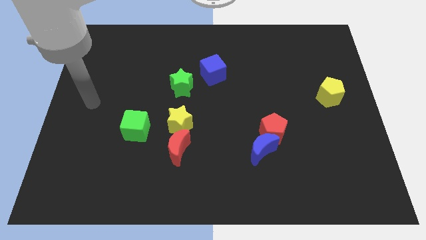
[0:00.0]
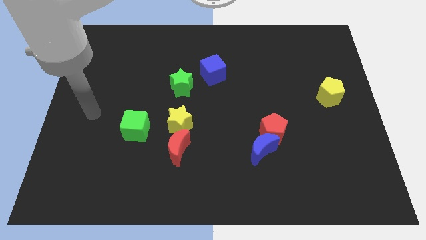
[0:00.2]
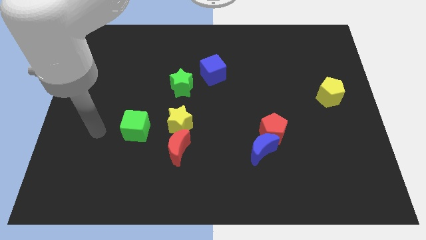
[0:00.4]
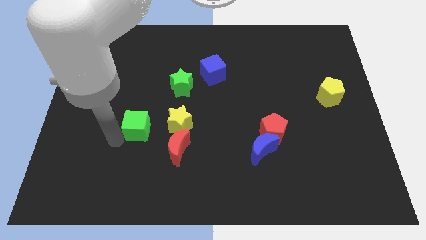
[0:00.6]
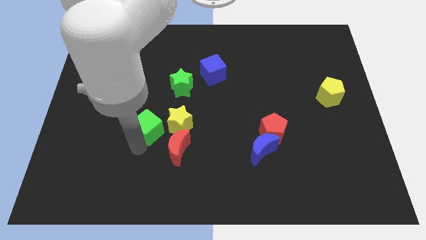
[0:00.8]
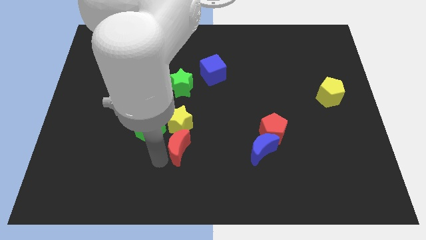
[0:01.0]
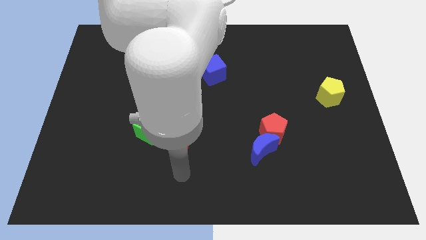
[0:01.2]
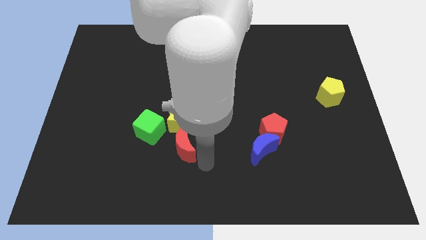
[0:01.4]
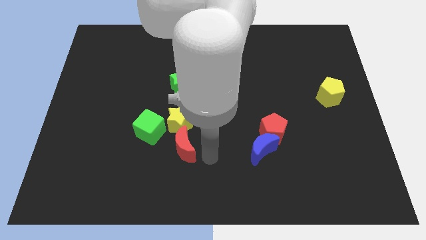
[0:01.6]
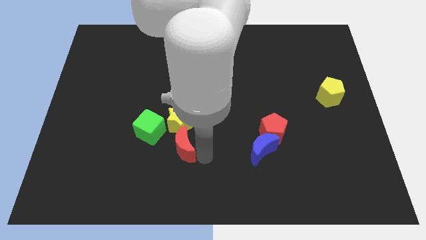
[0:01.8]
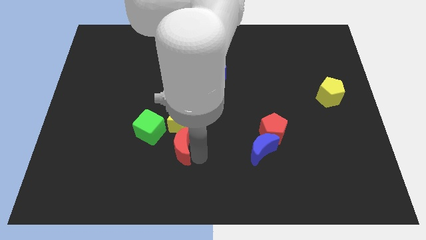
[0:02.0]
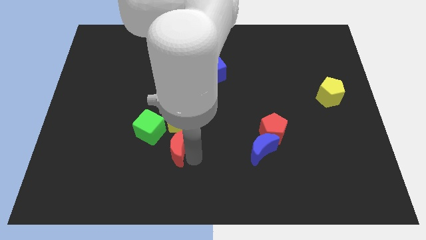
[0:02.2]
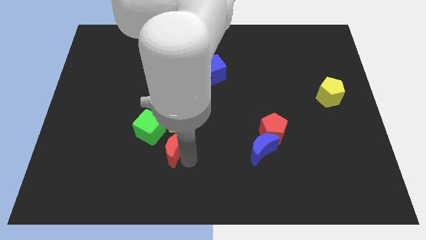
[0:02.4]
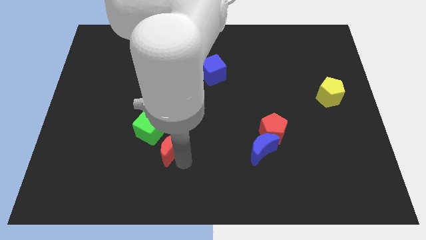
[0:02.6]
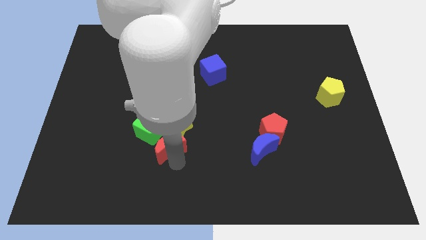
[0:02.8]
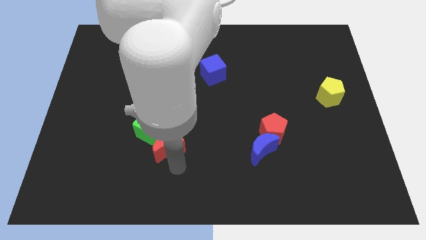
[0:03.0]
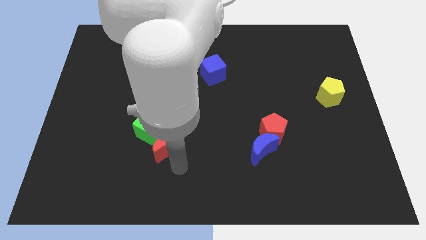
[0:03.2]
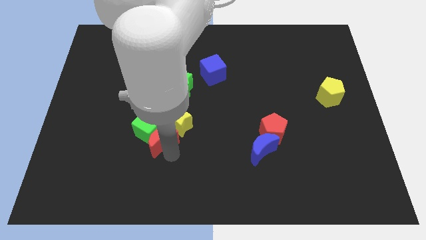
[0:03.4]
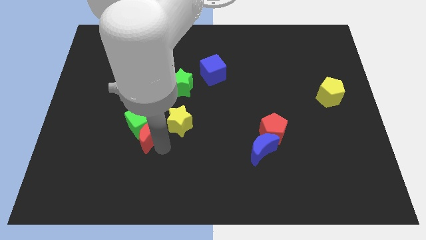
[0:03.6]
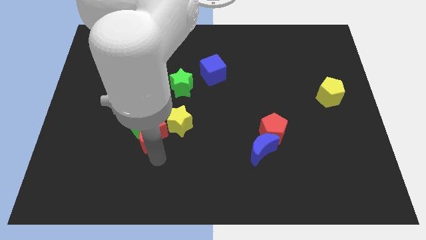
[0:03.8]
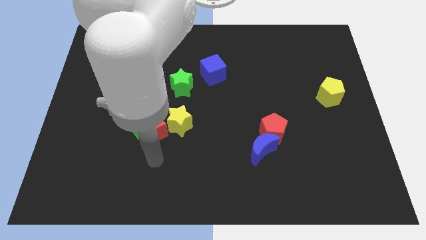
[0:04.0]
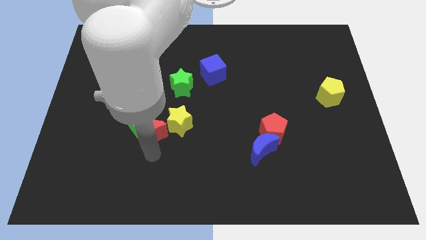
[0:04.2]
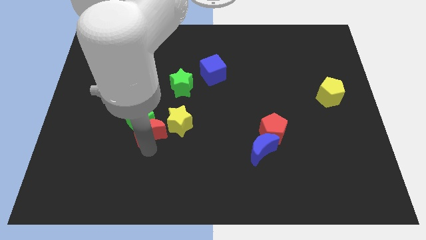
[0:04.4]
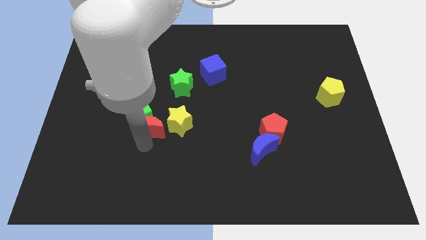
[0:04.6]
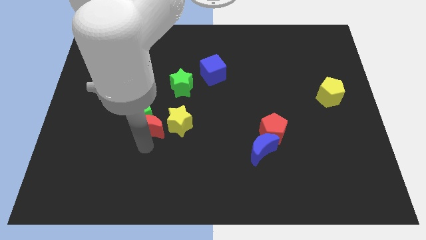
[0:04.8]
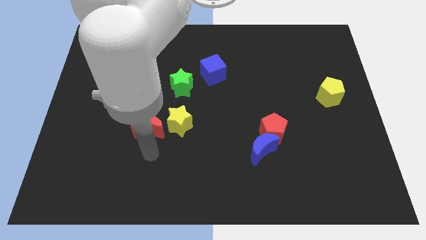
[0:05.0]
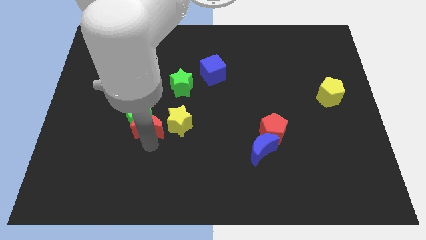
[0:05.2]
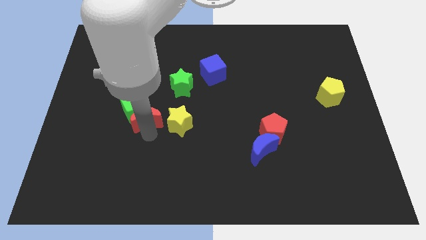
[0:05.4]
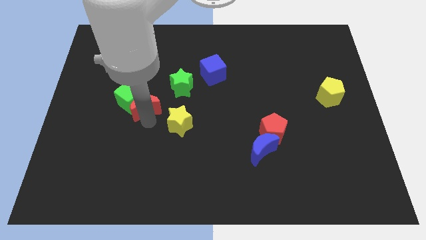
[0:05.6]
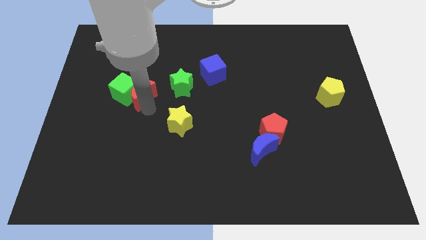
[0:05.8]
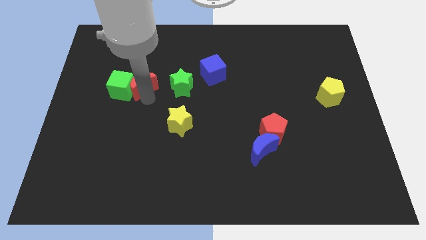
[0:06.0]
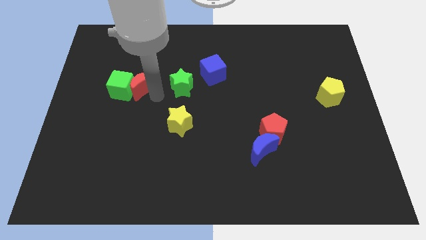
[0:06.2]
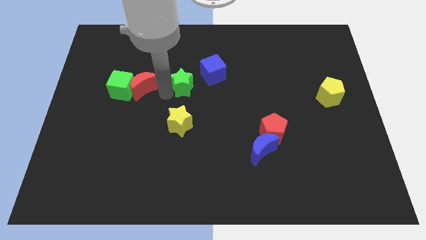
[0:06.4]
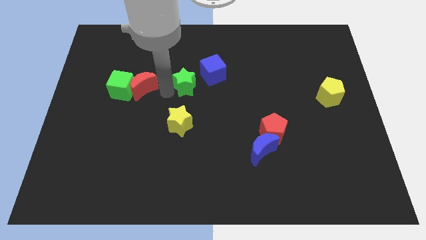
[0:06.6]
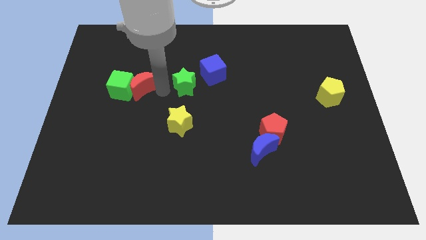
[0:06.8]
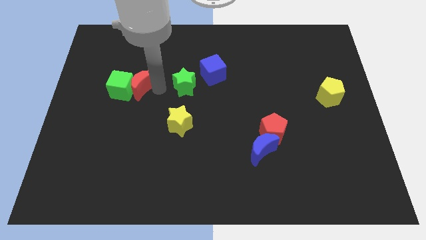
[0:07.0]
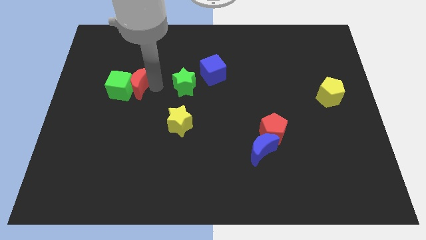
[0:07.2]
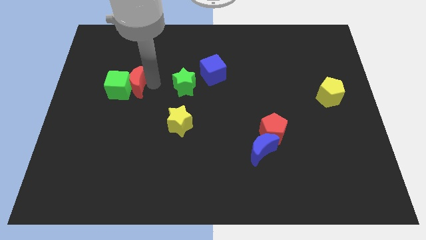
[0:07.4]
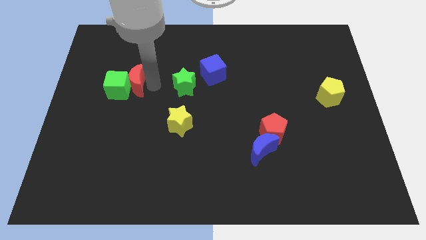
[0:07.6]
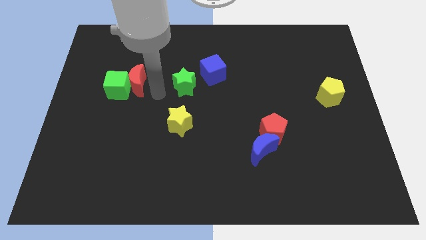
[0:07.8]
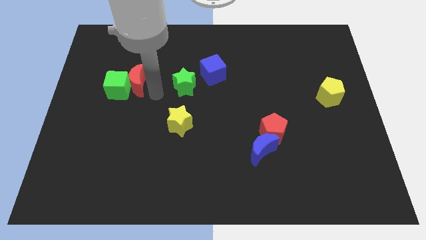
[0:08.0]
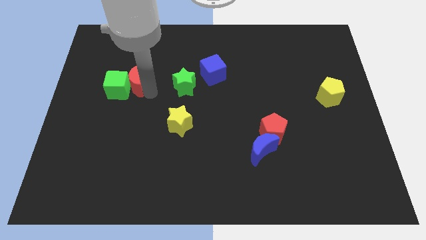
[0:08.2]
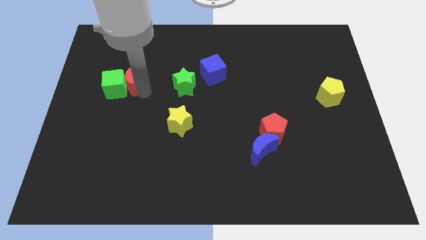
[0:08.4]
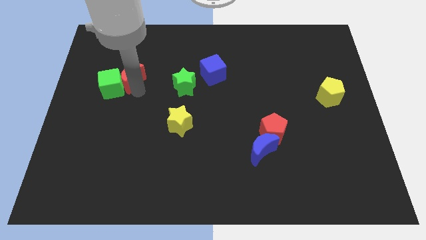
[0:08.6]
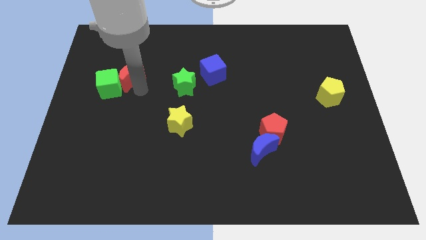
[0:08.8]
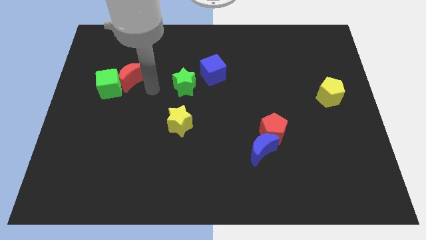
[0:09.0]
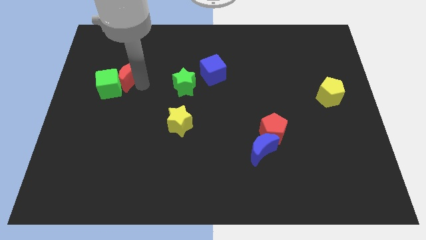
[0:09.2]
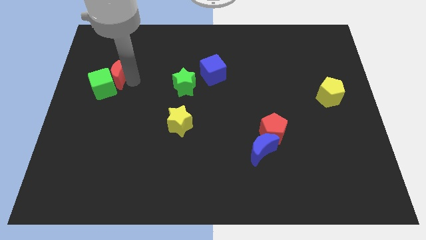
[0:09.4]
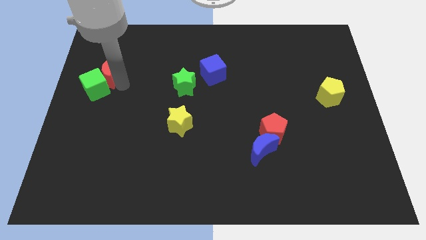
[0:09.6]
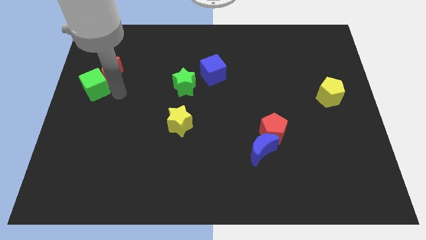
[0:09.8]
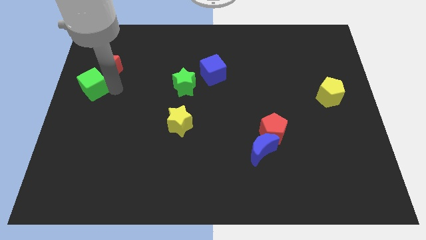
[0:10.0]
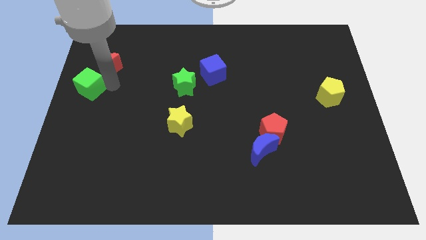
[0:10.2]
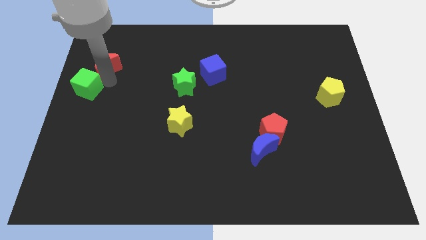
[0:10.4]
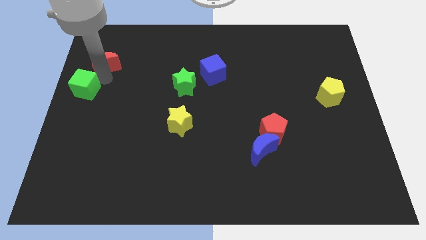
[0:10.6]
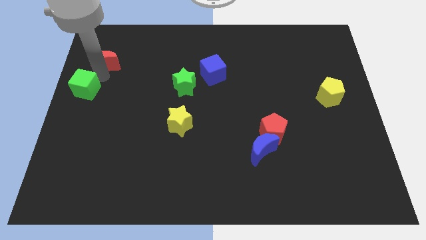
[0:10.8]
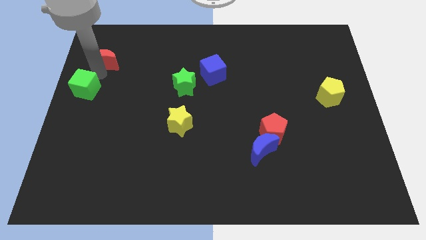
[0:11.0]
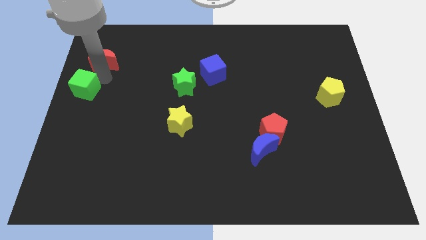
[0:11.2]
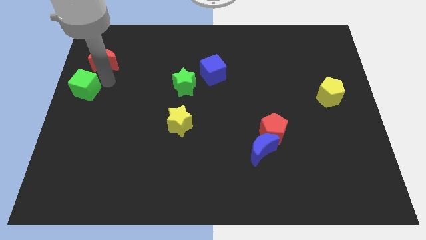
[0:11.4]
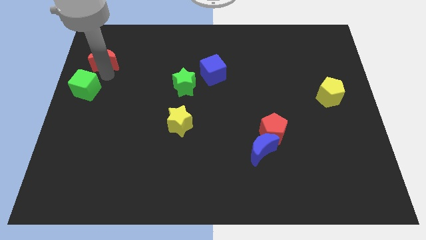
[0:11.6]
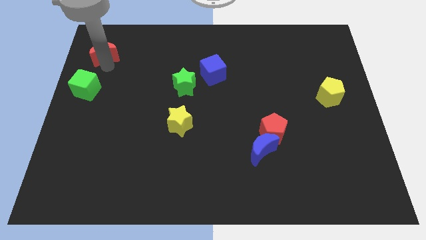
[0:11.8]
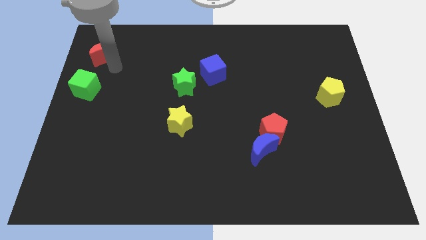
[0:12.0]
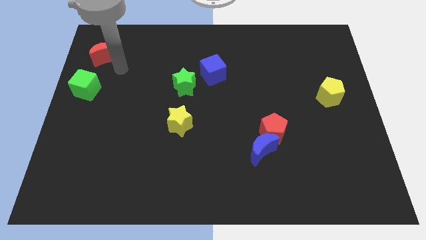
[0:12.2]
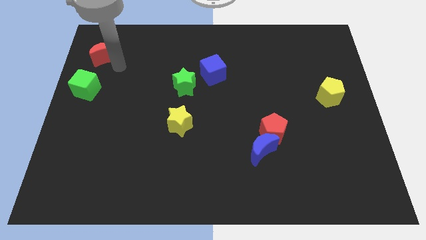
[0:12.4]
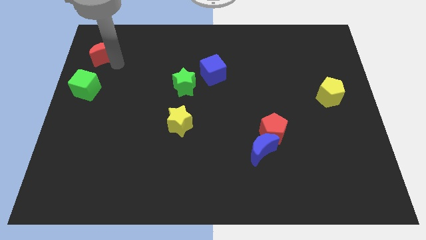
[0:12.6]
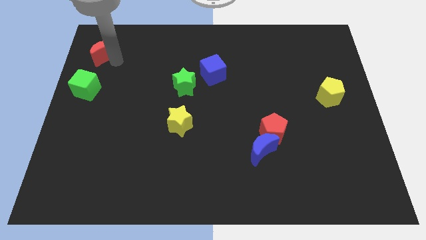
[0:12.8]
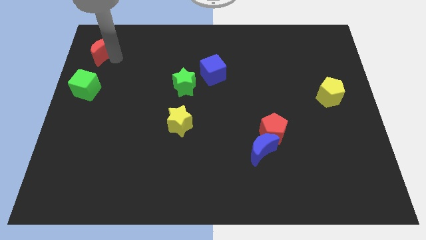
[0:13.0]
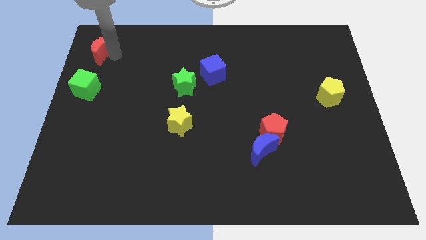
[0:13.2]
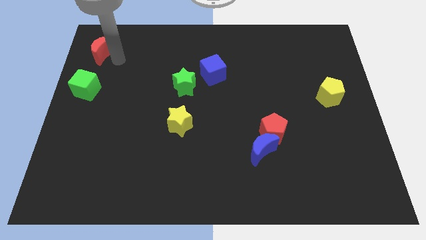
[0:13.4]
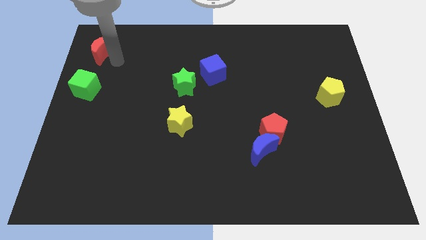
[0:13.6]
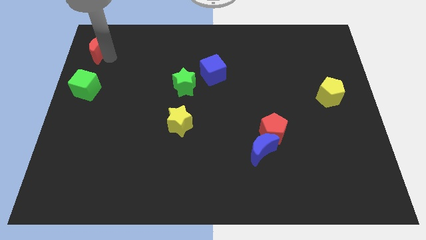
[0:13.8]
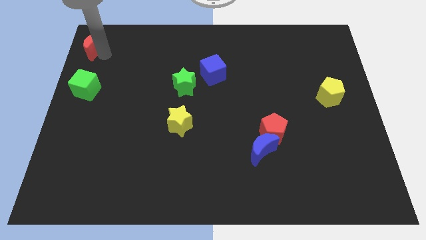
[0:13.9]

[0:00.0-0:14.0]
move the red moon to the top left of the board
